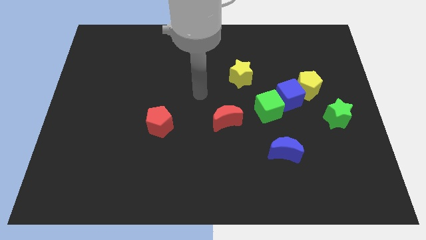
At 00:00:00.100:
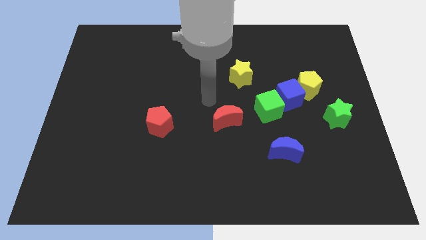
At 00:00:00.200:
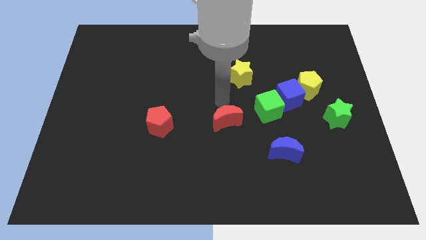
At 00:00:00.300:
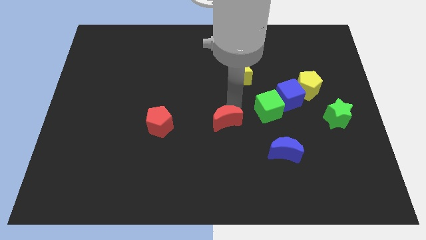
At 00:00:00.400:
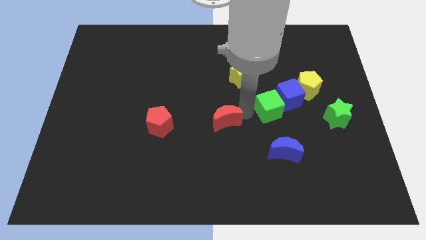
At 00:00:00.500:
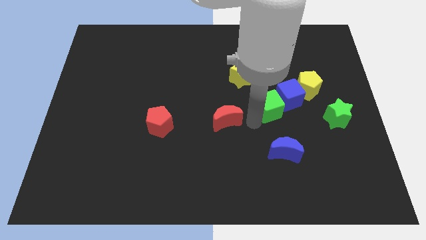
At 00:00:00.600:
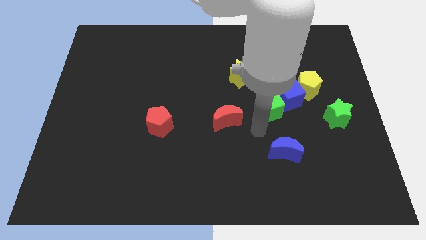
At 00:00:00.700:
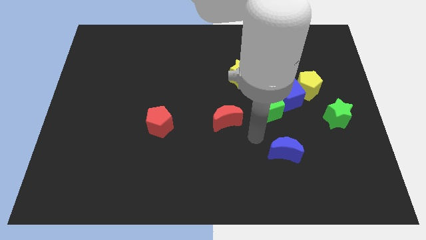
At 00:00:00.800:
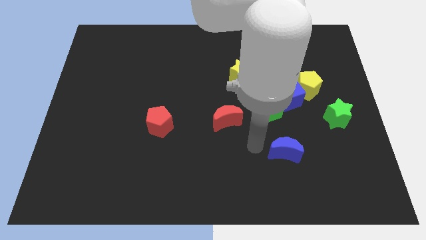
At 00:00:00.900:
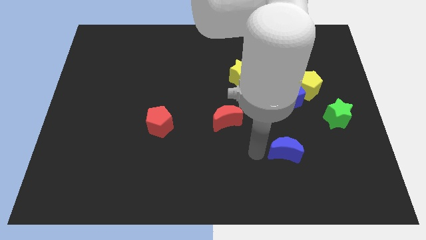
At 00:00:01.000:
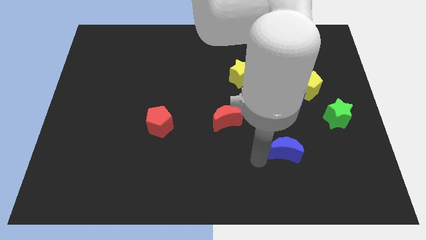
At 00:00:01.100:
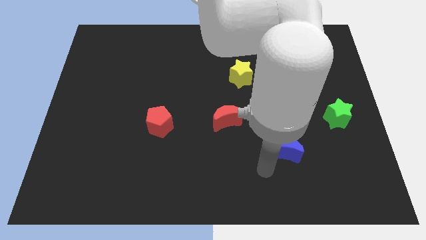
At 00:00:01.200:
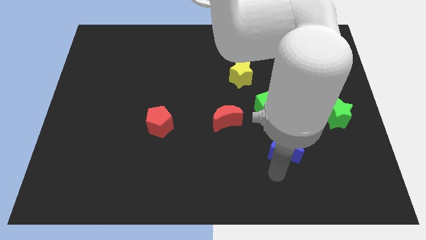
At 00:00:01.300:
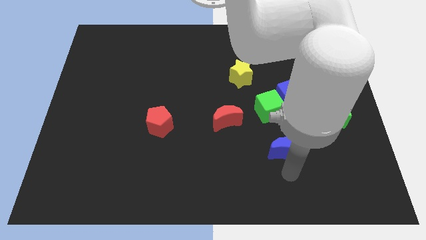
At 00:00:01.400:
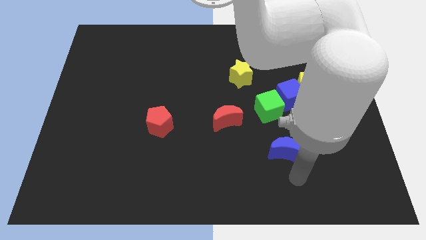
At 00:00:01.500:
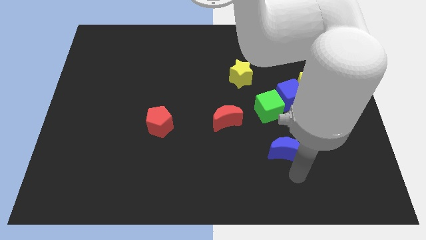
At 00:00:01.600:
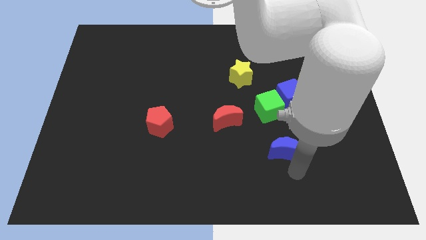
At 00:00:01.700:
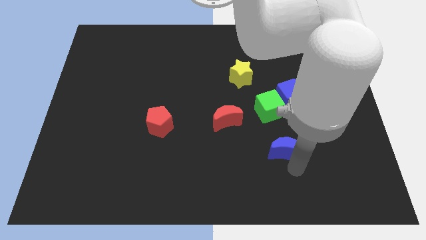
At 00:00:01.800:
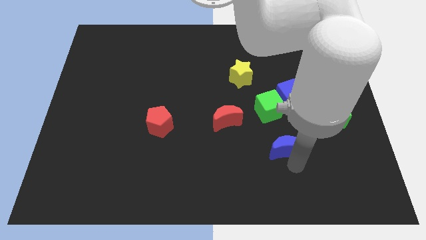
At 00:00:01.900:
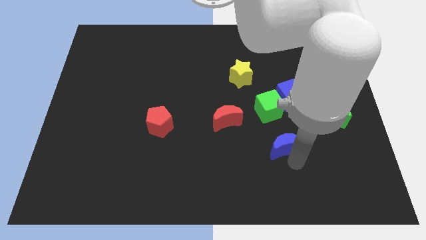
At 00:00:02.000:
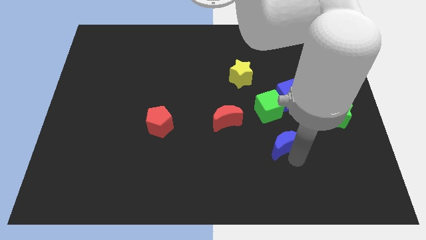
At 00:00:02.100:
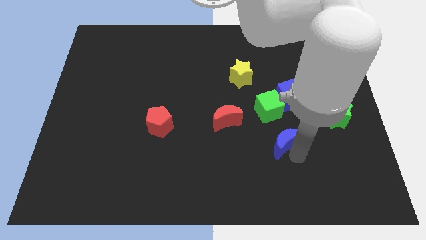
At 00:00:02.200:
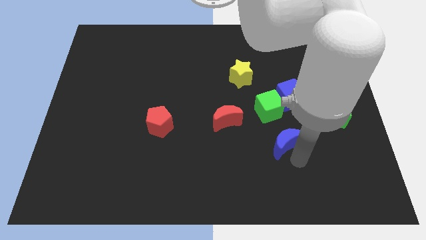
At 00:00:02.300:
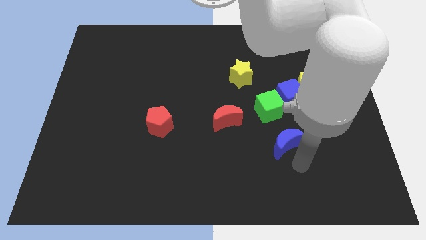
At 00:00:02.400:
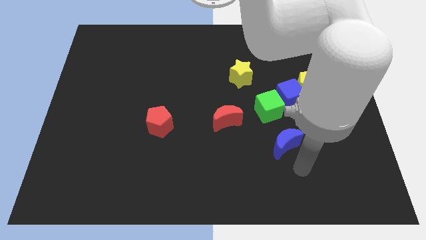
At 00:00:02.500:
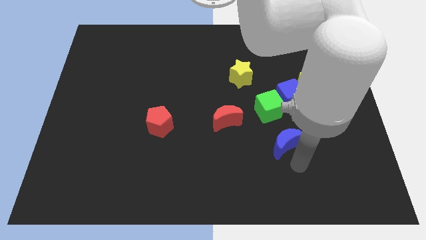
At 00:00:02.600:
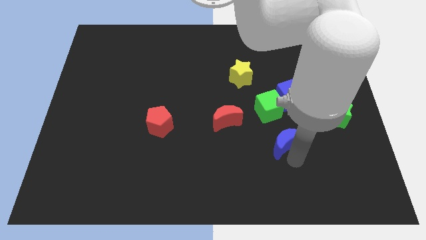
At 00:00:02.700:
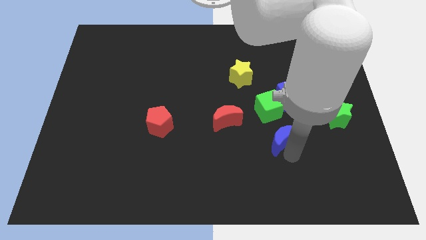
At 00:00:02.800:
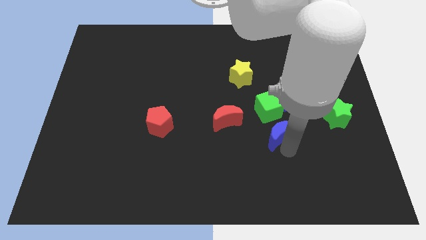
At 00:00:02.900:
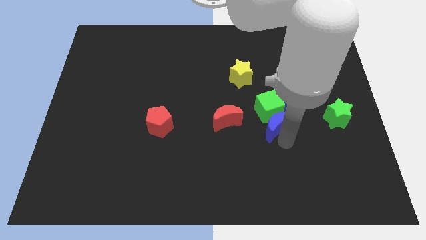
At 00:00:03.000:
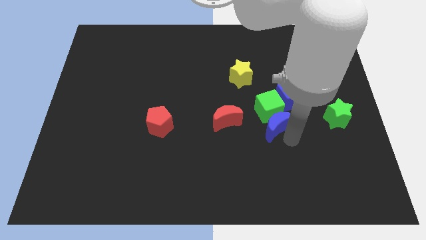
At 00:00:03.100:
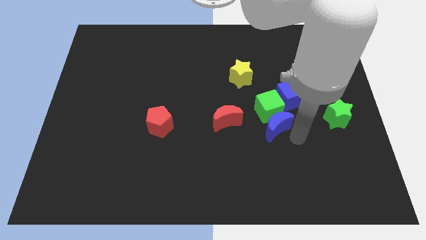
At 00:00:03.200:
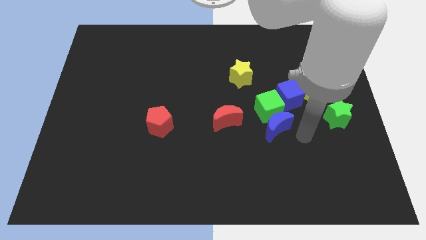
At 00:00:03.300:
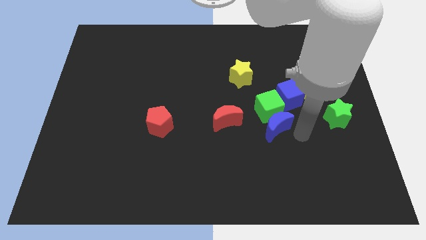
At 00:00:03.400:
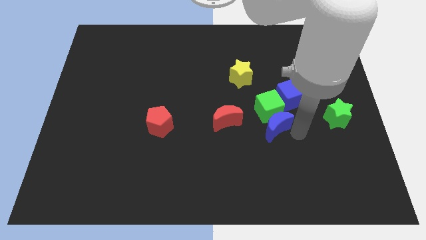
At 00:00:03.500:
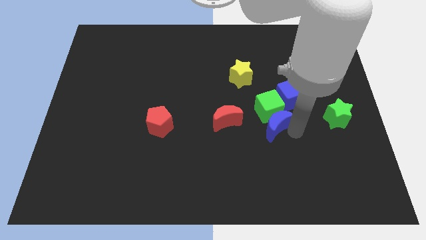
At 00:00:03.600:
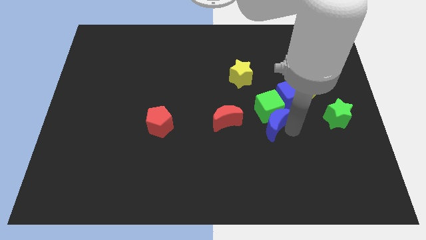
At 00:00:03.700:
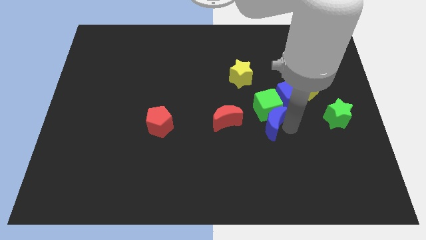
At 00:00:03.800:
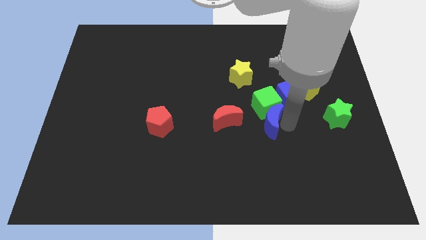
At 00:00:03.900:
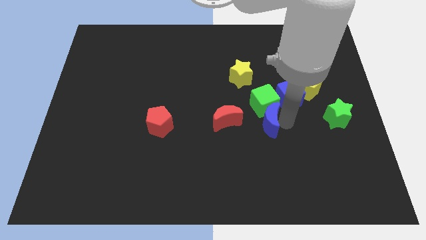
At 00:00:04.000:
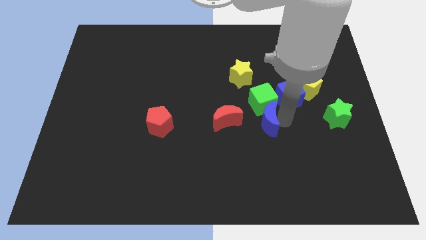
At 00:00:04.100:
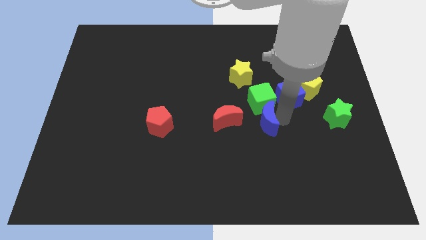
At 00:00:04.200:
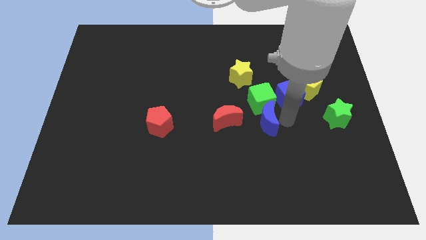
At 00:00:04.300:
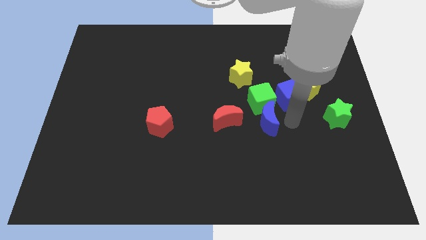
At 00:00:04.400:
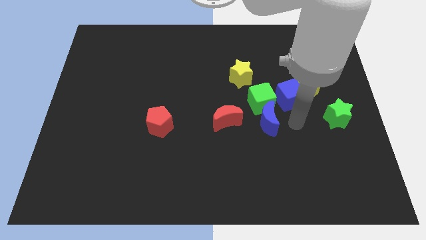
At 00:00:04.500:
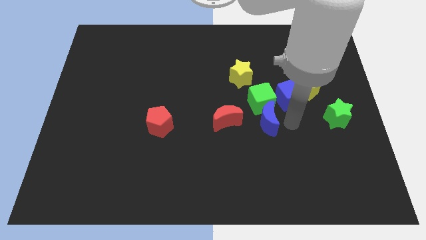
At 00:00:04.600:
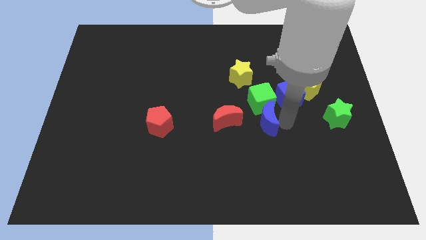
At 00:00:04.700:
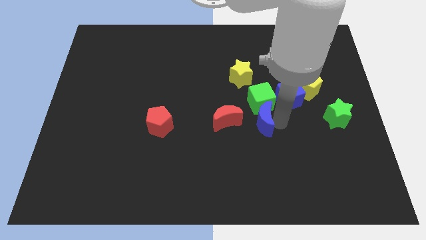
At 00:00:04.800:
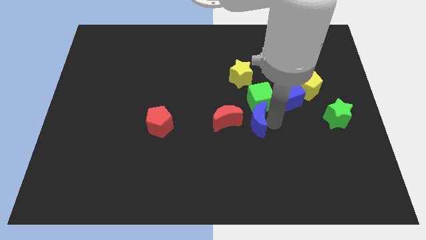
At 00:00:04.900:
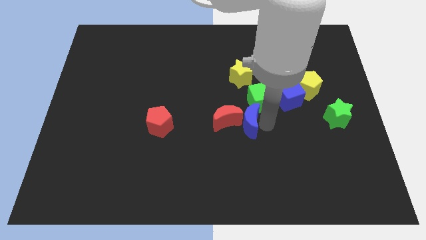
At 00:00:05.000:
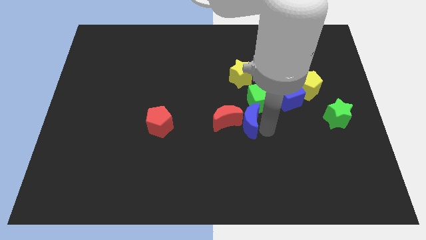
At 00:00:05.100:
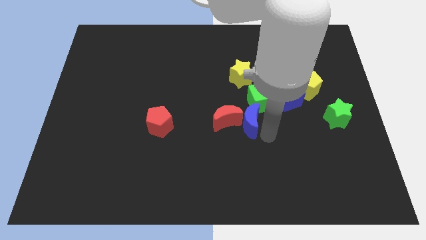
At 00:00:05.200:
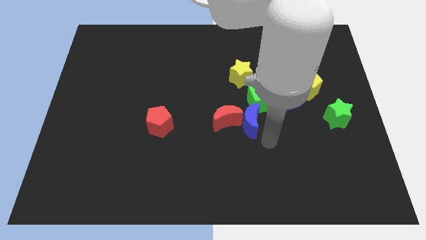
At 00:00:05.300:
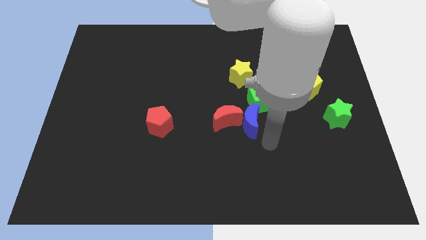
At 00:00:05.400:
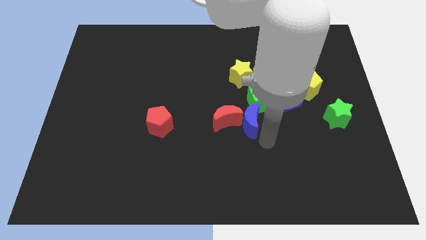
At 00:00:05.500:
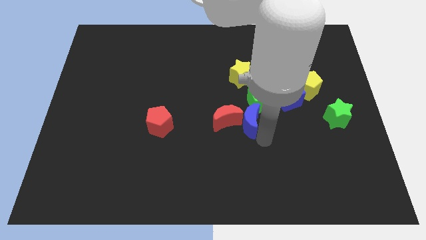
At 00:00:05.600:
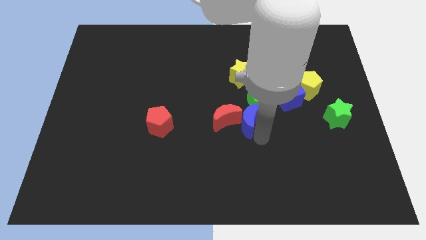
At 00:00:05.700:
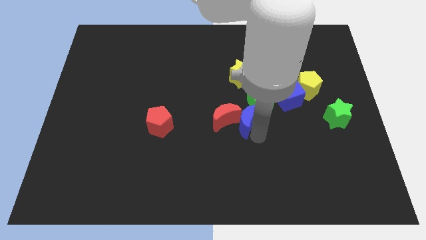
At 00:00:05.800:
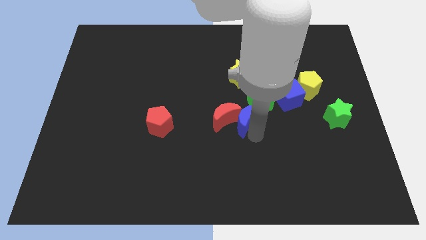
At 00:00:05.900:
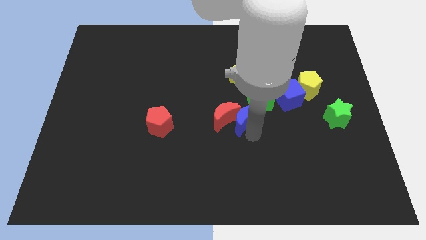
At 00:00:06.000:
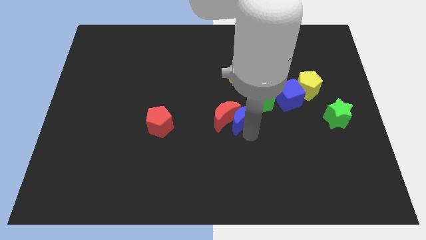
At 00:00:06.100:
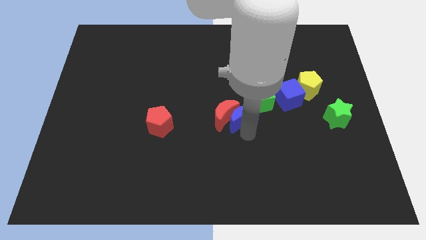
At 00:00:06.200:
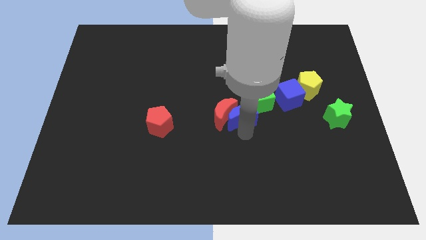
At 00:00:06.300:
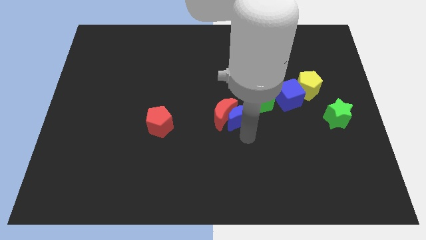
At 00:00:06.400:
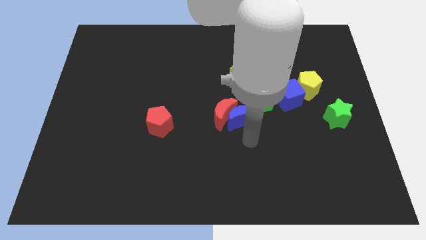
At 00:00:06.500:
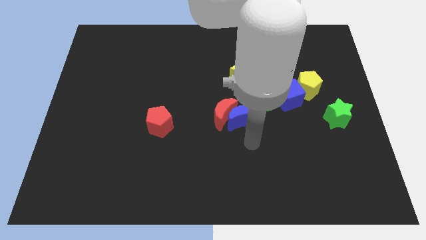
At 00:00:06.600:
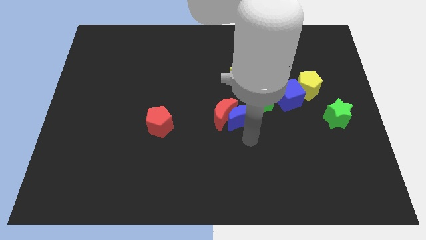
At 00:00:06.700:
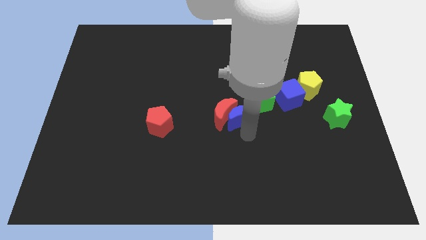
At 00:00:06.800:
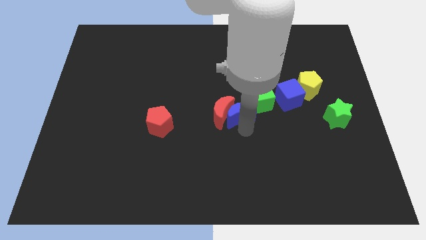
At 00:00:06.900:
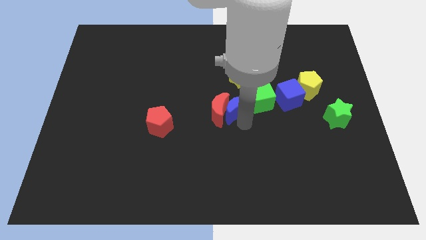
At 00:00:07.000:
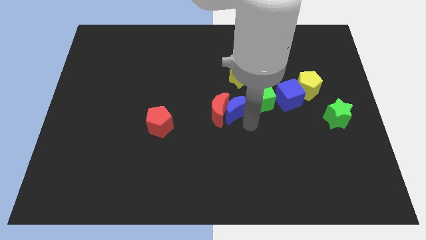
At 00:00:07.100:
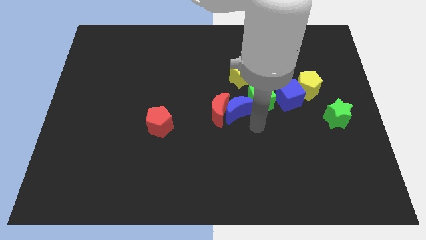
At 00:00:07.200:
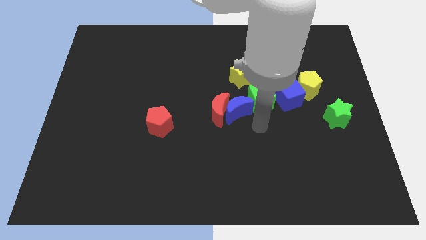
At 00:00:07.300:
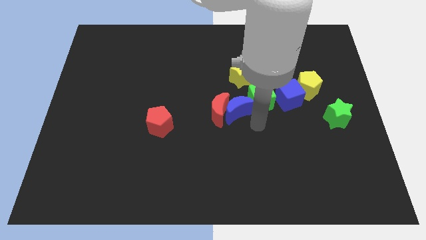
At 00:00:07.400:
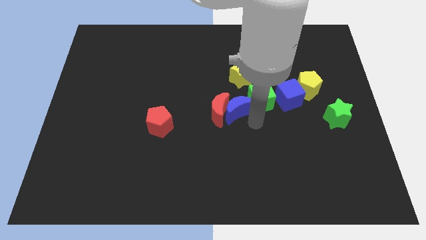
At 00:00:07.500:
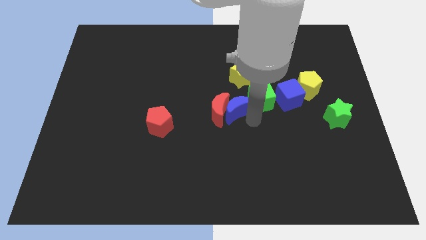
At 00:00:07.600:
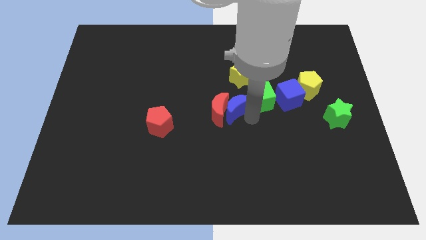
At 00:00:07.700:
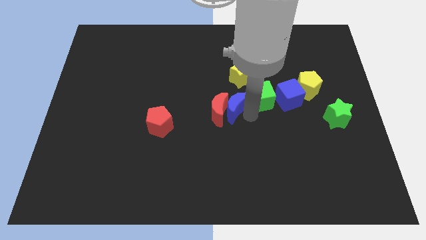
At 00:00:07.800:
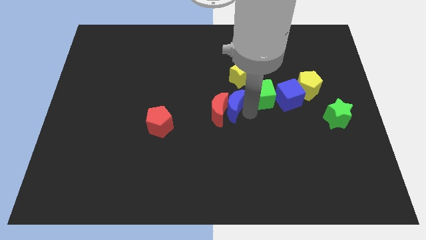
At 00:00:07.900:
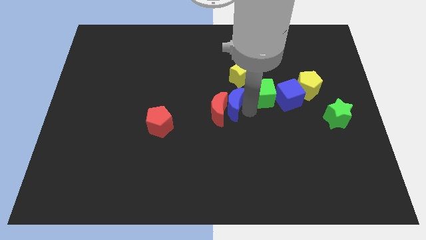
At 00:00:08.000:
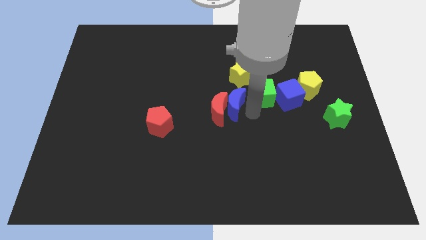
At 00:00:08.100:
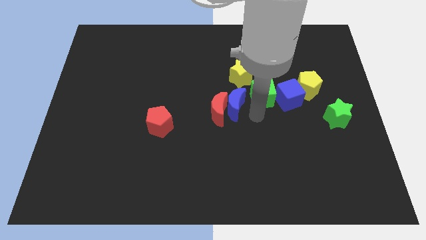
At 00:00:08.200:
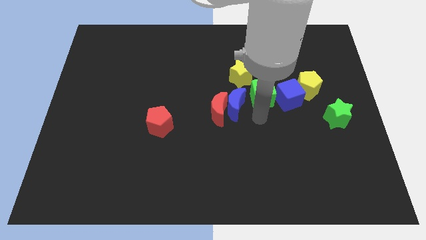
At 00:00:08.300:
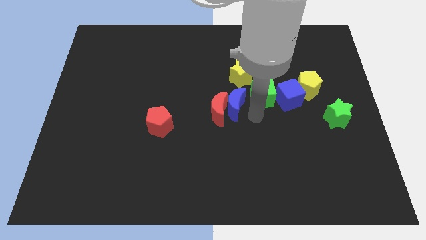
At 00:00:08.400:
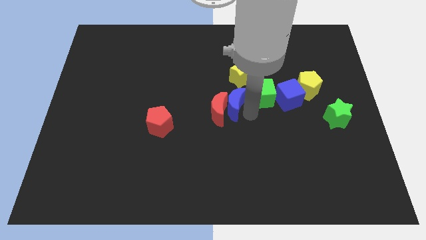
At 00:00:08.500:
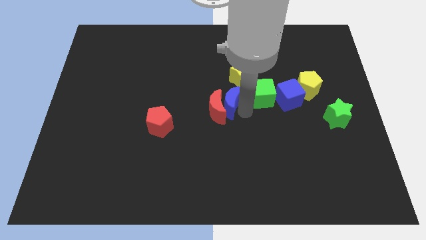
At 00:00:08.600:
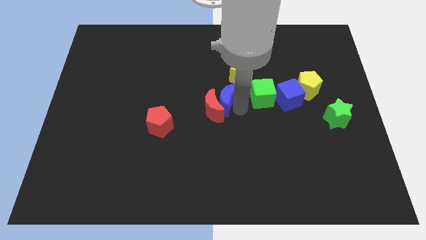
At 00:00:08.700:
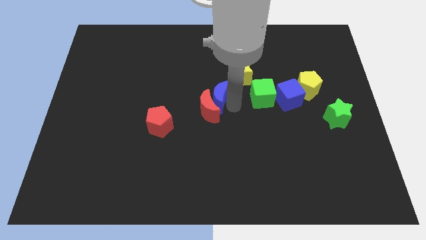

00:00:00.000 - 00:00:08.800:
slide the blue moon upwards and left diagonally
